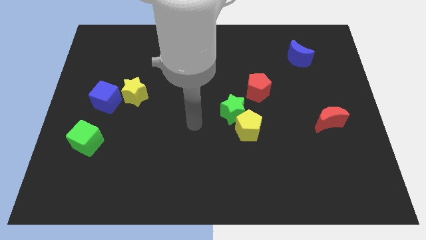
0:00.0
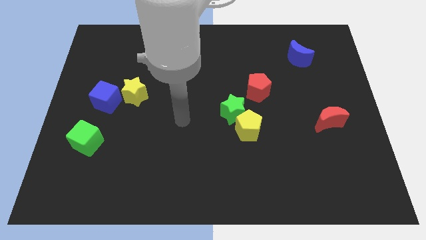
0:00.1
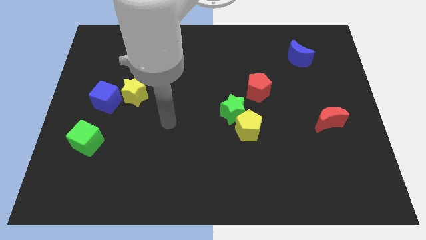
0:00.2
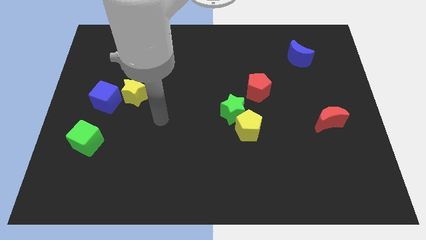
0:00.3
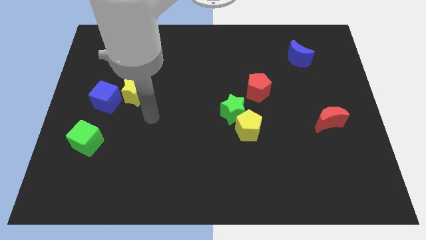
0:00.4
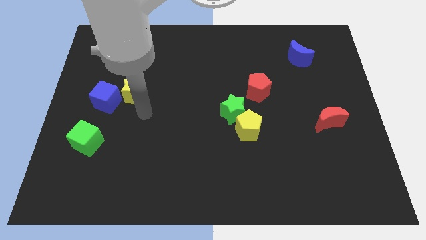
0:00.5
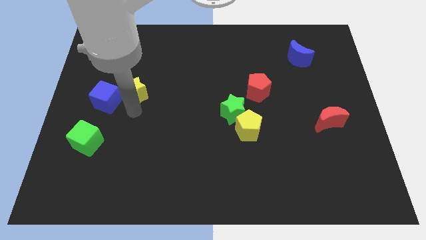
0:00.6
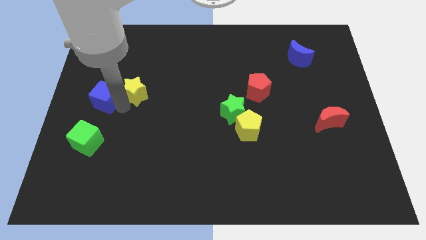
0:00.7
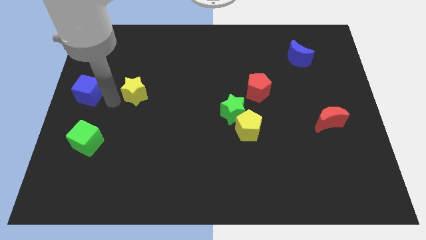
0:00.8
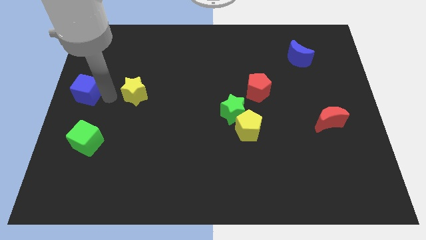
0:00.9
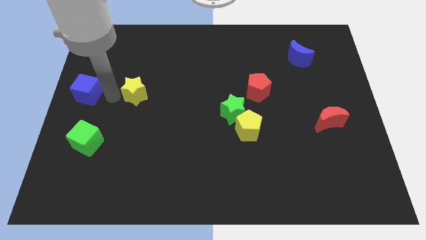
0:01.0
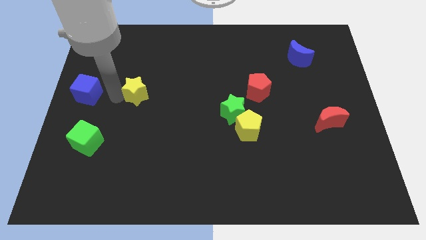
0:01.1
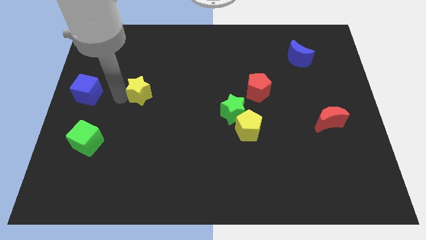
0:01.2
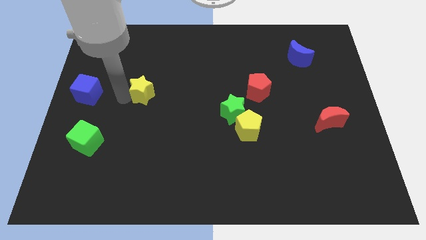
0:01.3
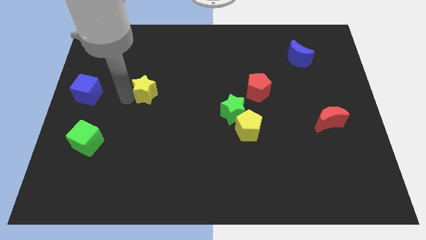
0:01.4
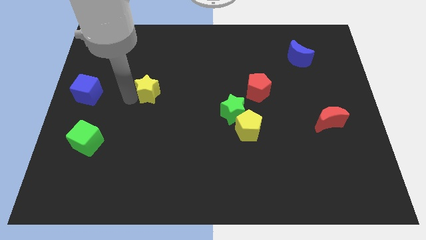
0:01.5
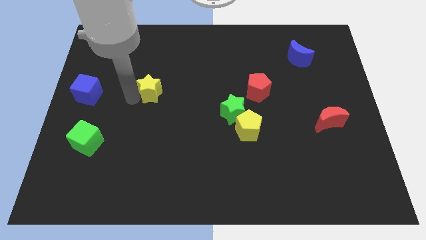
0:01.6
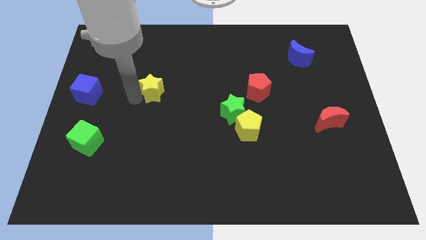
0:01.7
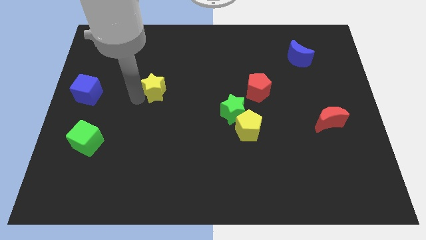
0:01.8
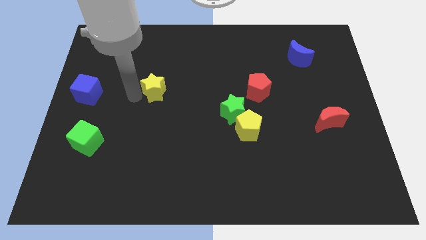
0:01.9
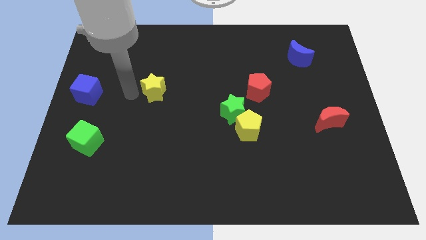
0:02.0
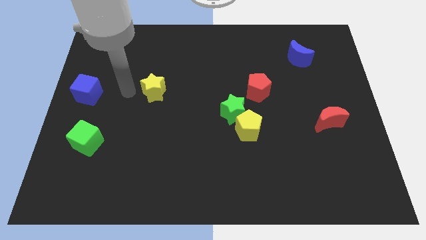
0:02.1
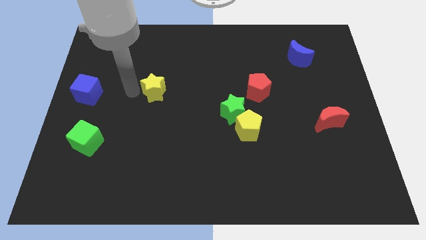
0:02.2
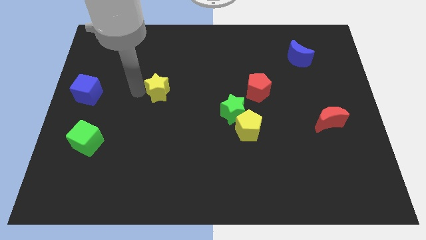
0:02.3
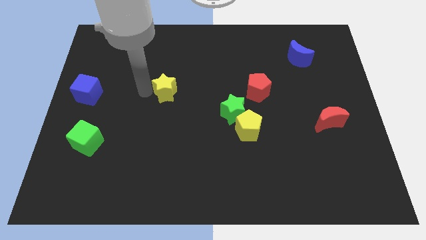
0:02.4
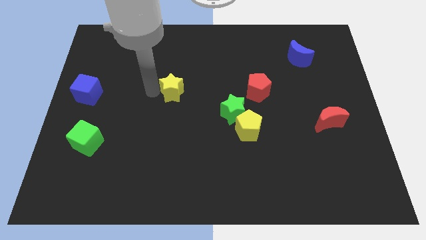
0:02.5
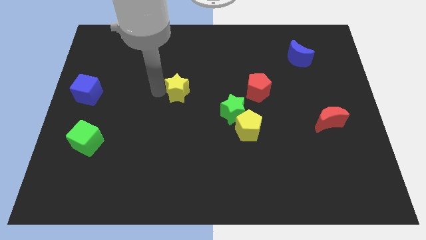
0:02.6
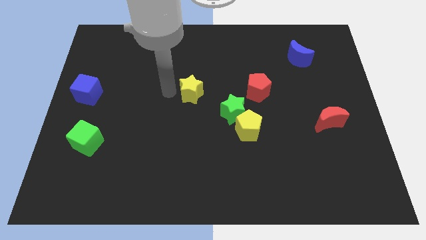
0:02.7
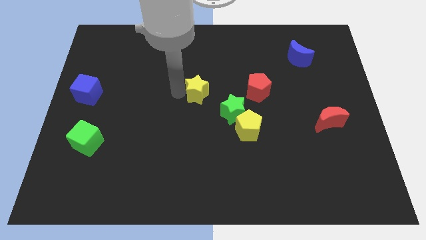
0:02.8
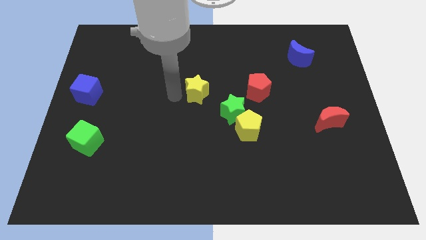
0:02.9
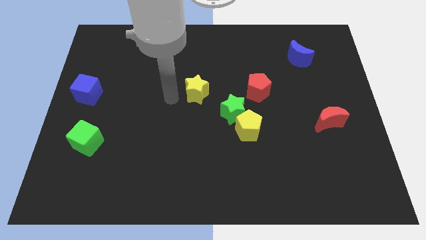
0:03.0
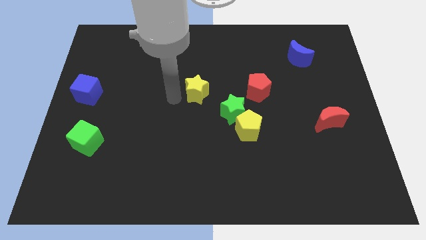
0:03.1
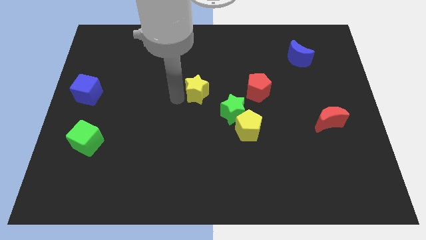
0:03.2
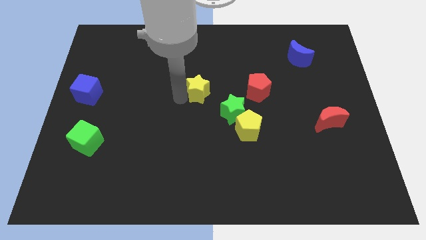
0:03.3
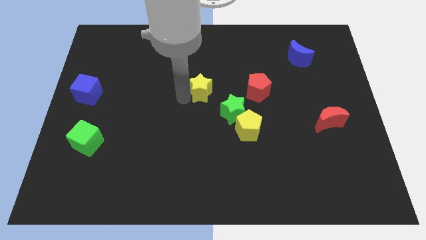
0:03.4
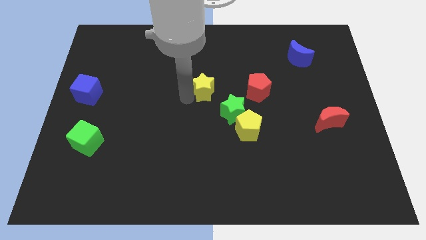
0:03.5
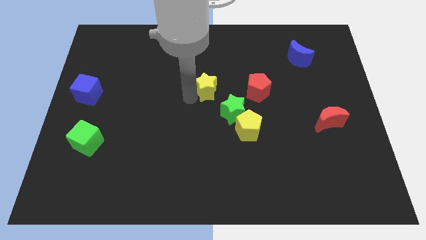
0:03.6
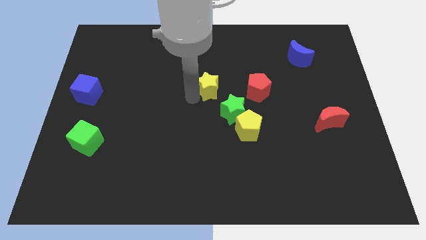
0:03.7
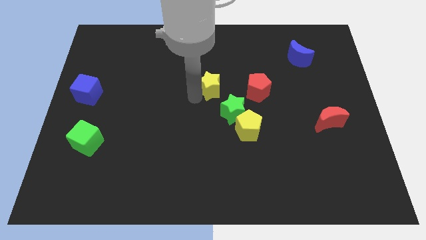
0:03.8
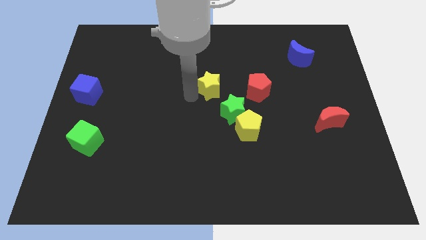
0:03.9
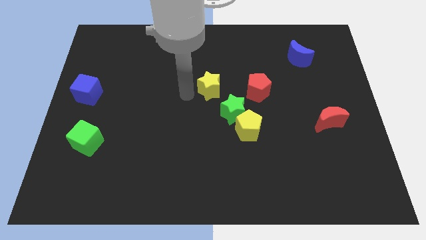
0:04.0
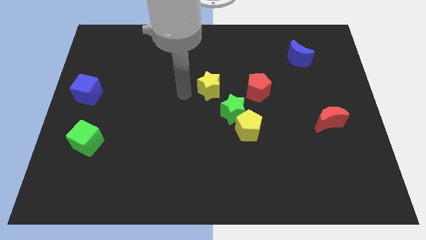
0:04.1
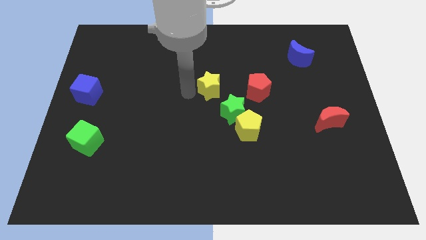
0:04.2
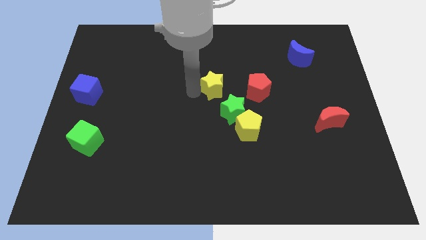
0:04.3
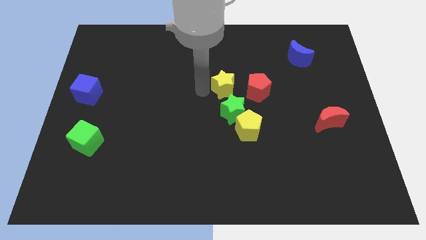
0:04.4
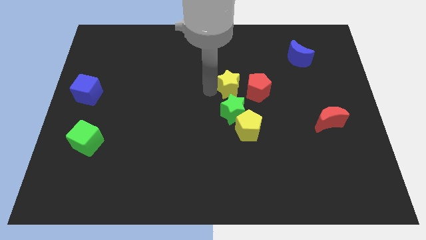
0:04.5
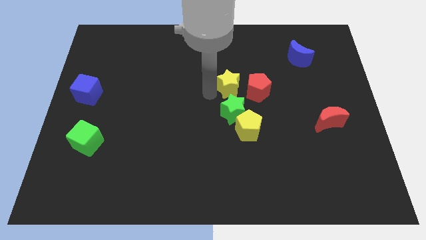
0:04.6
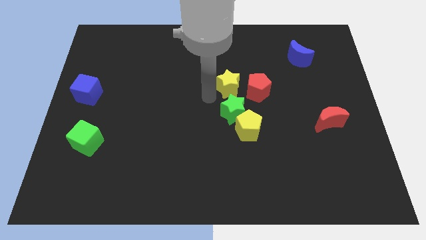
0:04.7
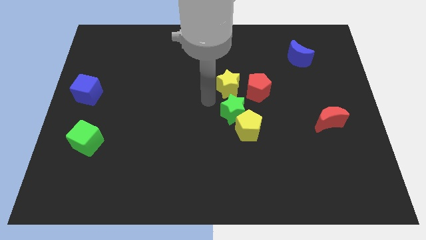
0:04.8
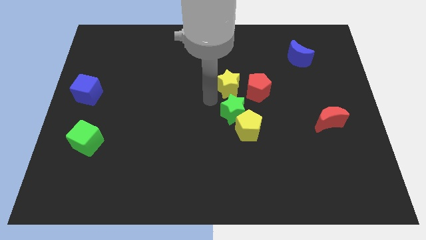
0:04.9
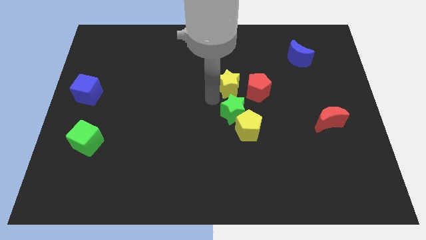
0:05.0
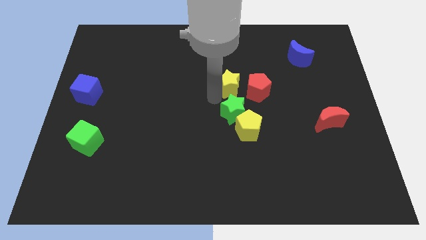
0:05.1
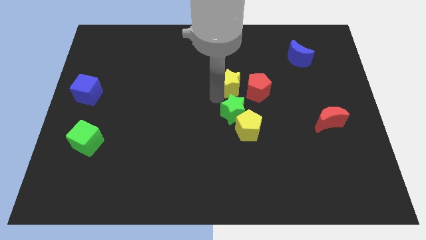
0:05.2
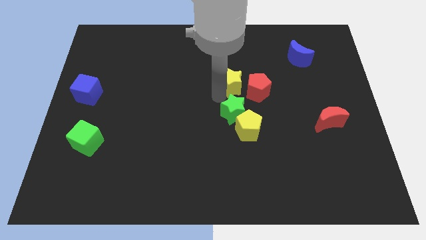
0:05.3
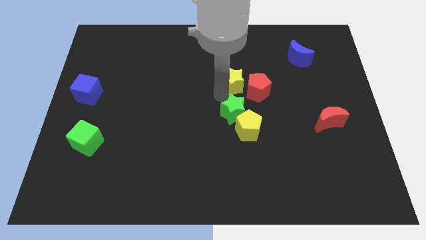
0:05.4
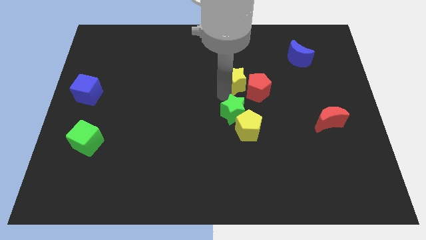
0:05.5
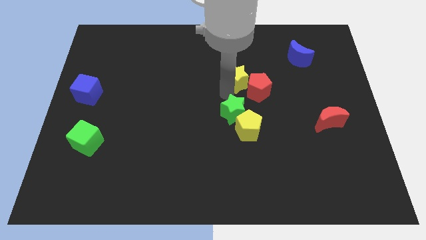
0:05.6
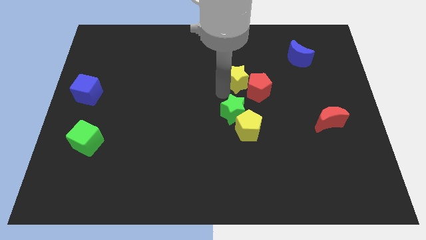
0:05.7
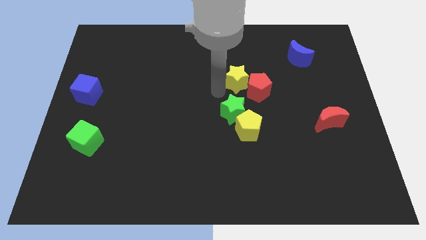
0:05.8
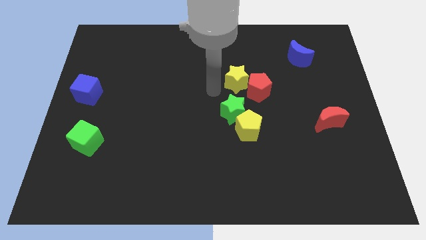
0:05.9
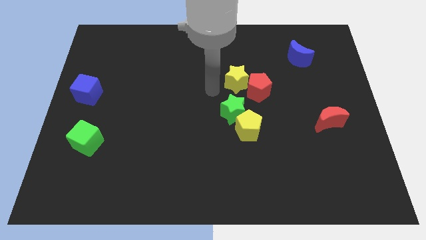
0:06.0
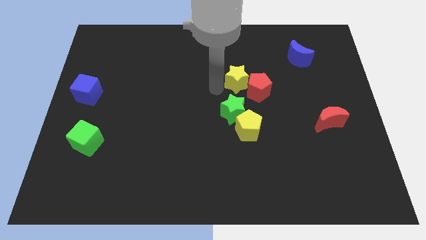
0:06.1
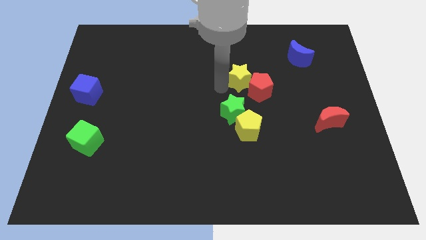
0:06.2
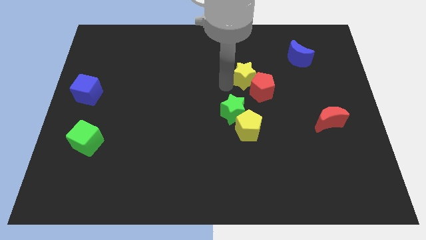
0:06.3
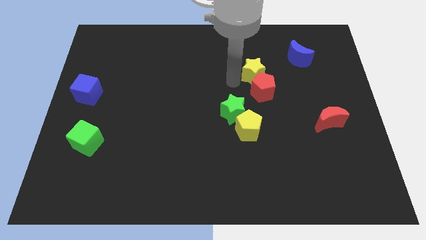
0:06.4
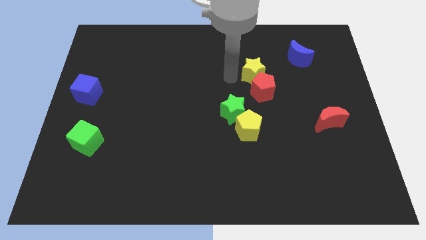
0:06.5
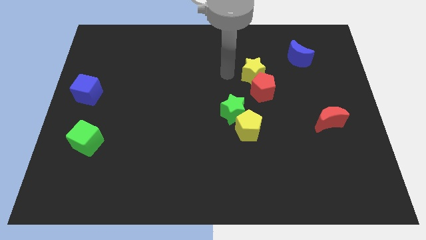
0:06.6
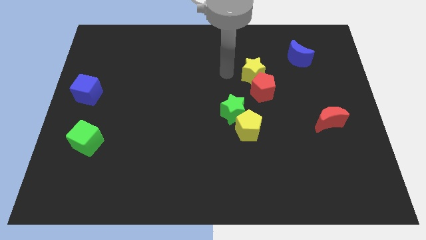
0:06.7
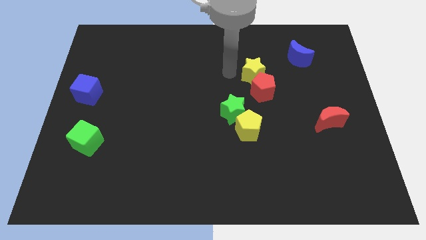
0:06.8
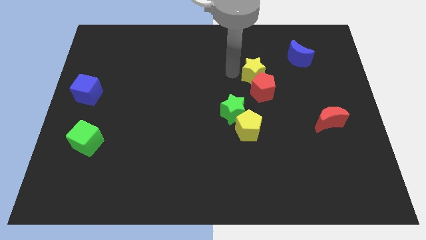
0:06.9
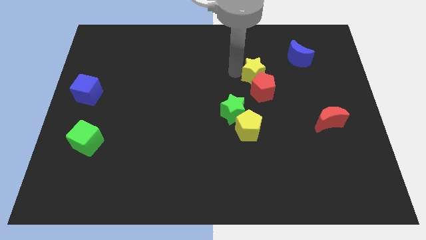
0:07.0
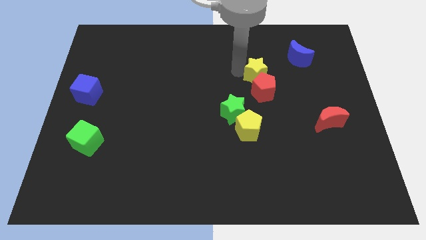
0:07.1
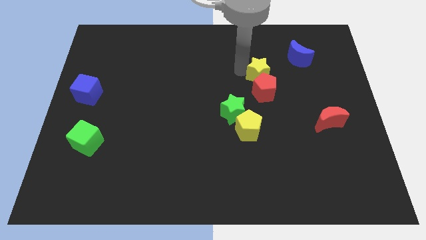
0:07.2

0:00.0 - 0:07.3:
push the yellow star diagonally up and to the right of the red pentagon
